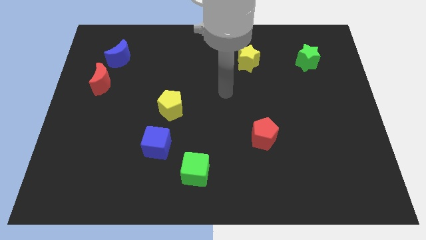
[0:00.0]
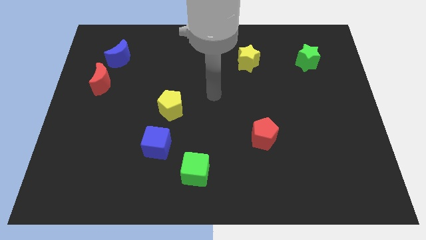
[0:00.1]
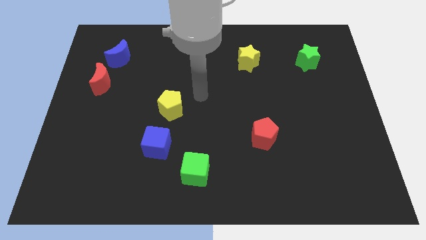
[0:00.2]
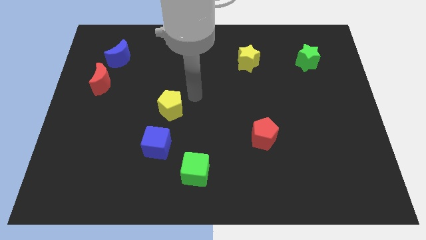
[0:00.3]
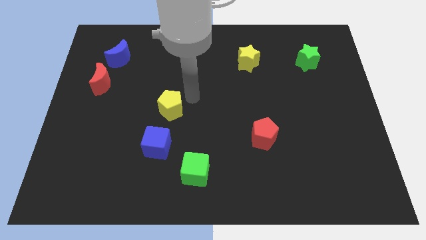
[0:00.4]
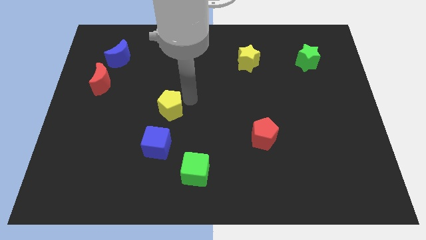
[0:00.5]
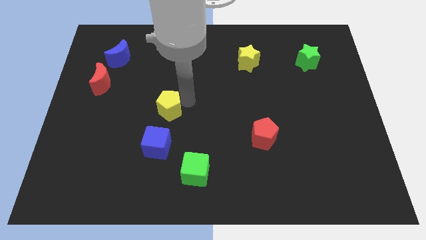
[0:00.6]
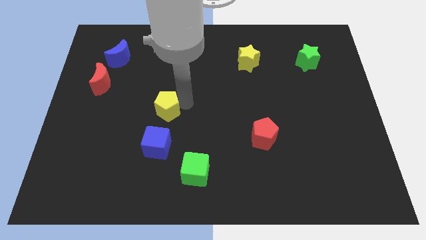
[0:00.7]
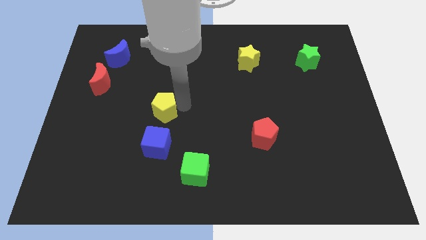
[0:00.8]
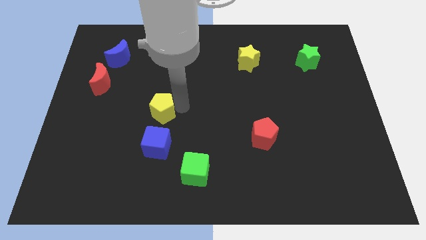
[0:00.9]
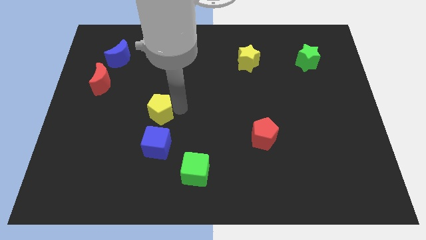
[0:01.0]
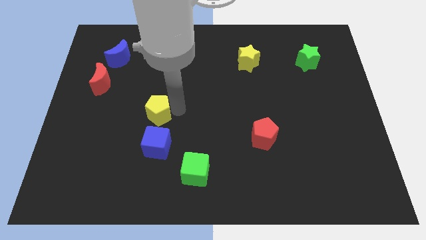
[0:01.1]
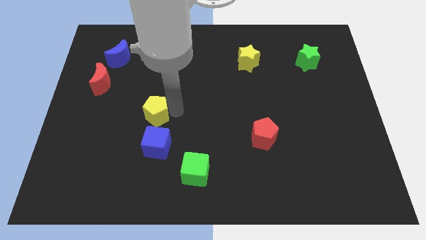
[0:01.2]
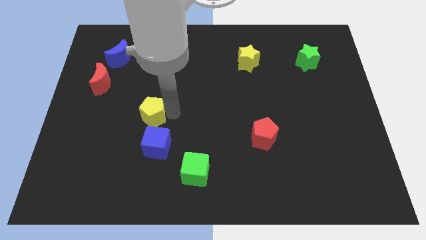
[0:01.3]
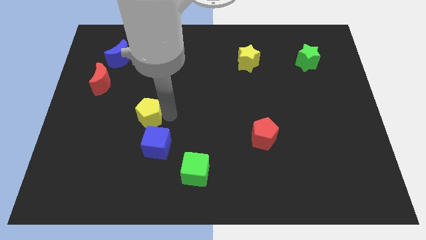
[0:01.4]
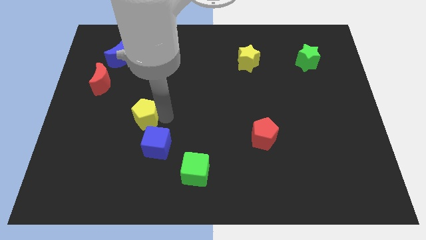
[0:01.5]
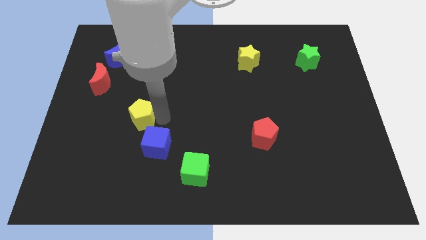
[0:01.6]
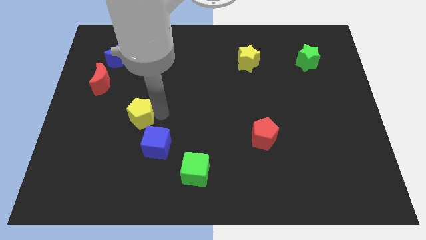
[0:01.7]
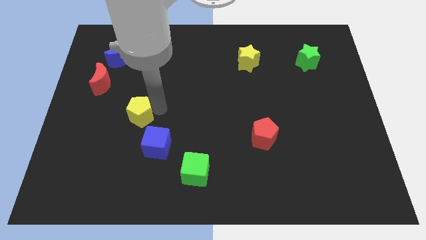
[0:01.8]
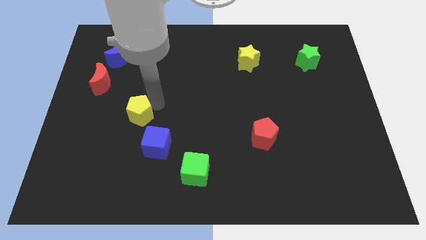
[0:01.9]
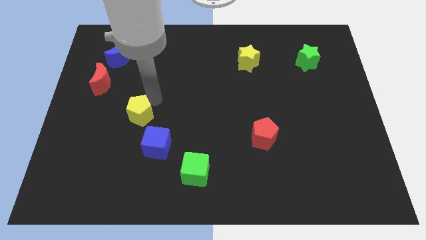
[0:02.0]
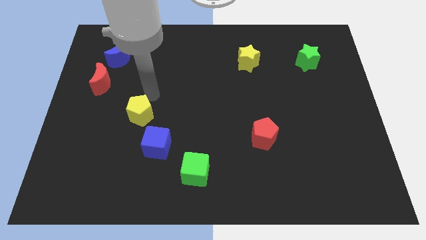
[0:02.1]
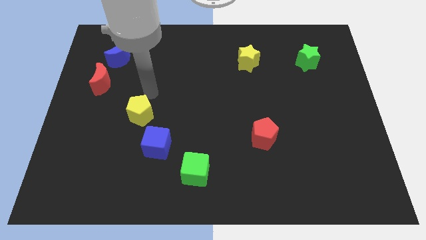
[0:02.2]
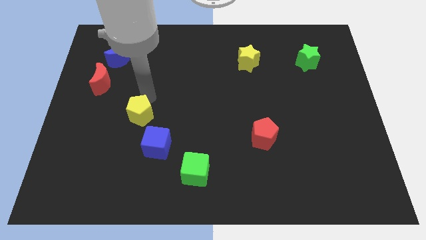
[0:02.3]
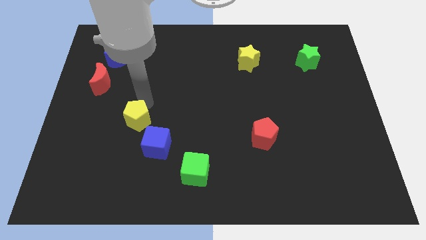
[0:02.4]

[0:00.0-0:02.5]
slightly slide the yellow pentagon down and then to the left

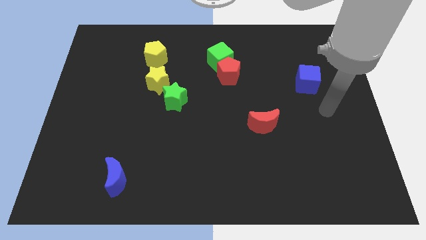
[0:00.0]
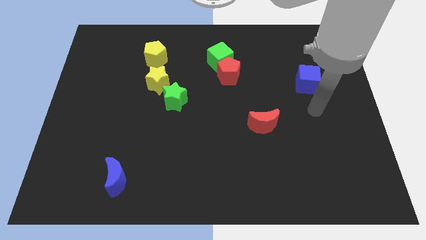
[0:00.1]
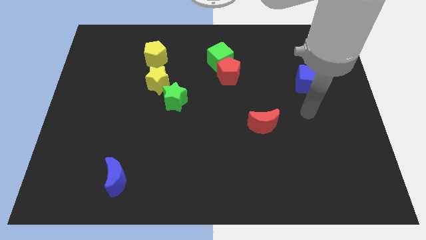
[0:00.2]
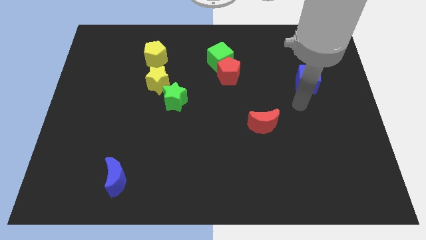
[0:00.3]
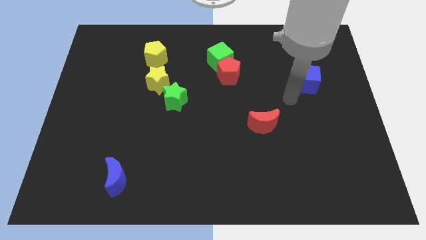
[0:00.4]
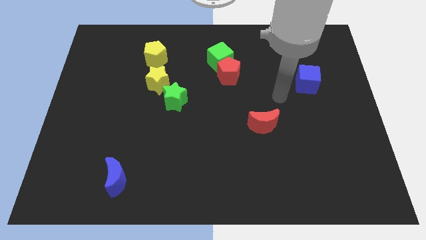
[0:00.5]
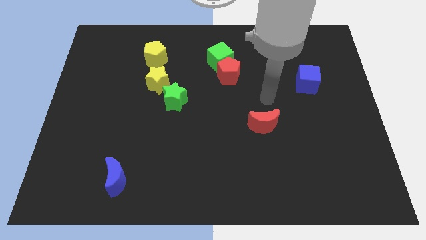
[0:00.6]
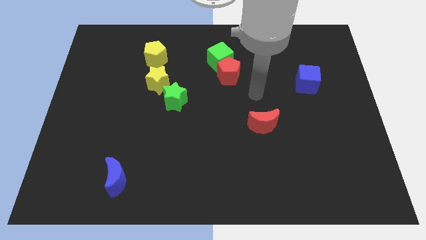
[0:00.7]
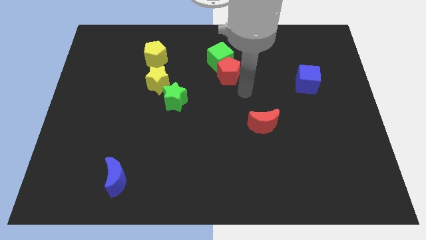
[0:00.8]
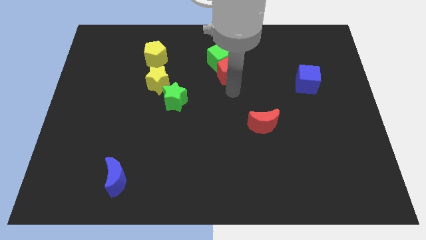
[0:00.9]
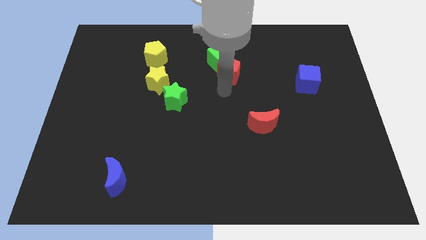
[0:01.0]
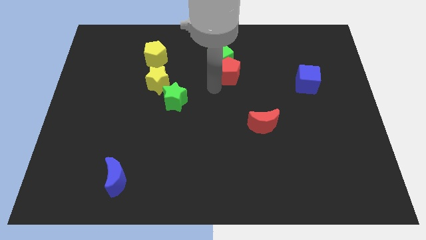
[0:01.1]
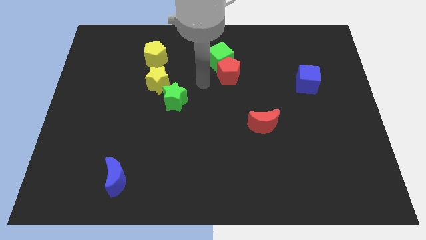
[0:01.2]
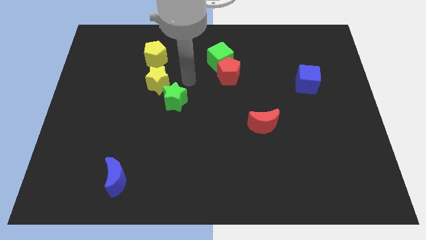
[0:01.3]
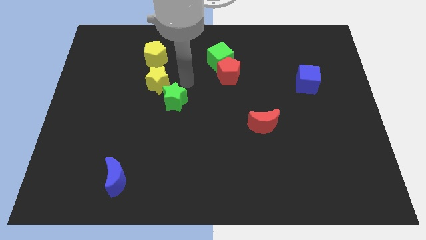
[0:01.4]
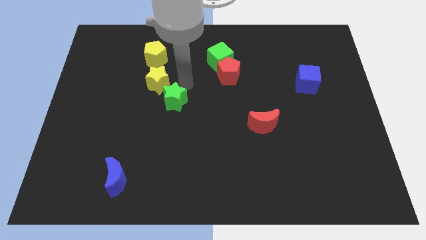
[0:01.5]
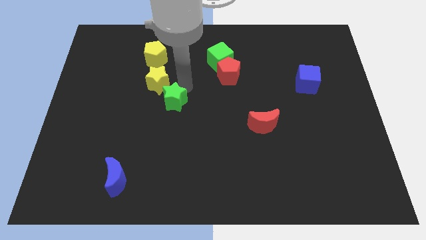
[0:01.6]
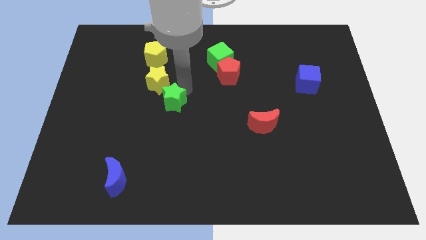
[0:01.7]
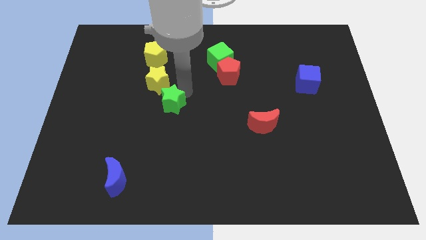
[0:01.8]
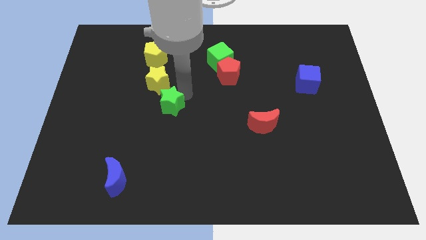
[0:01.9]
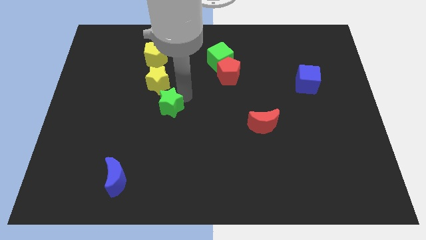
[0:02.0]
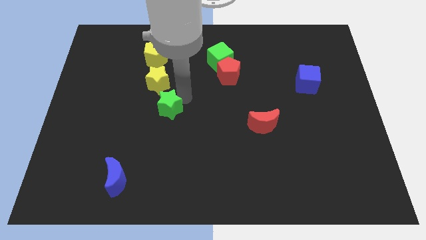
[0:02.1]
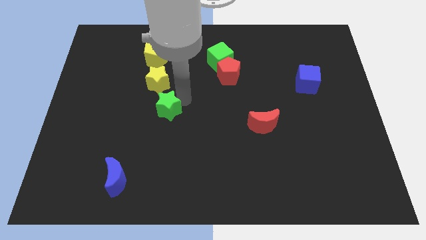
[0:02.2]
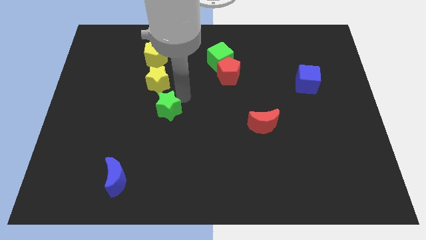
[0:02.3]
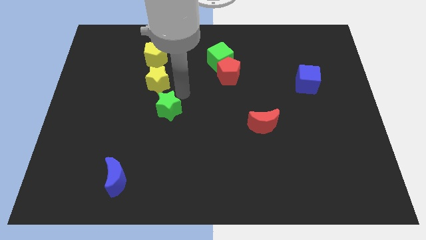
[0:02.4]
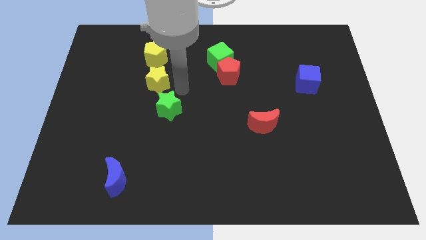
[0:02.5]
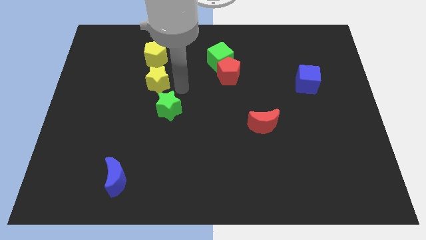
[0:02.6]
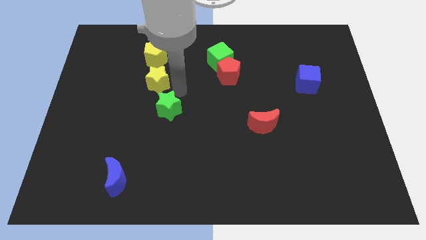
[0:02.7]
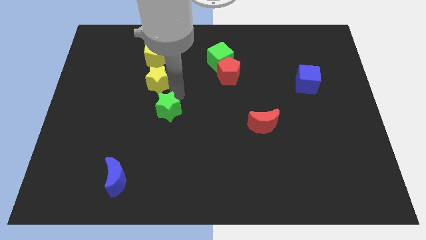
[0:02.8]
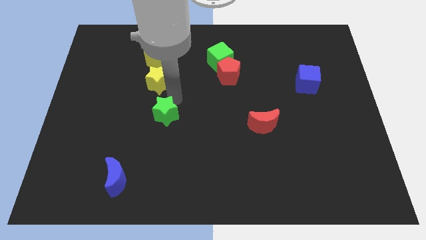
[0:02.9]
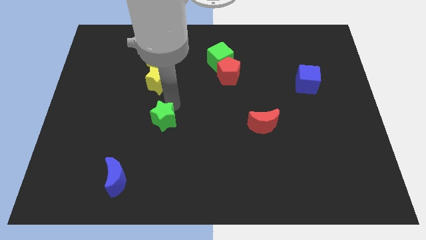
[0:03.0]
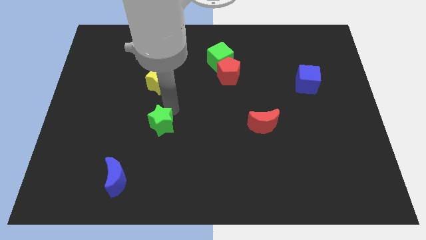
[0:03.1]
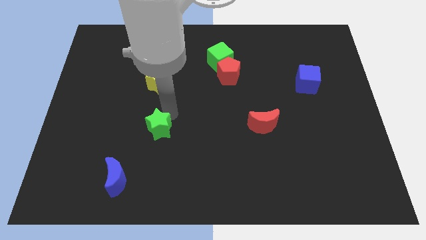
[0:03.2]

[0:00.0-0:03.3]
slightly slide the green star down and left diagonally

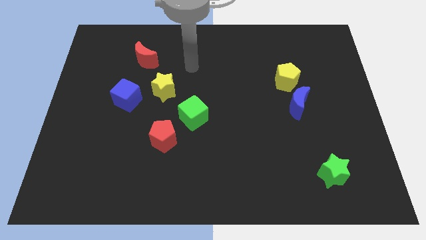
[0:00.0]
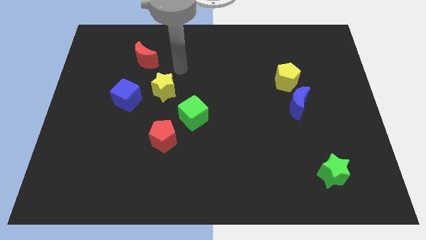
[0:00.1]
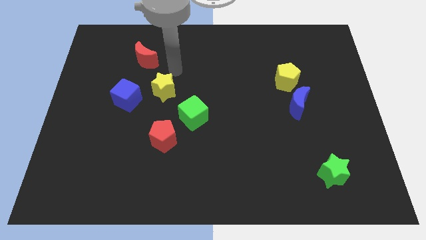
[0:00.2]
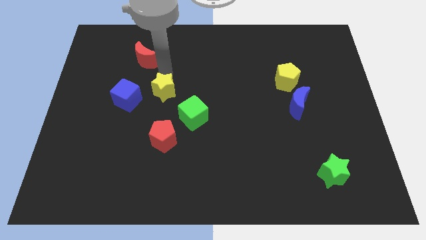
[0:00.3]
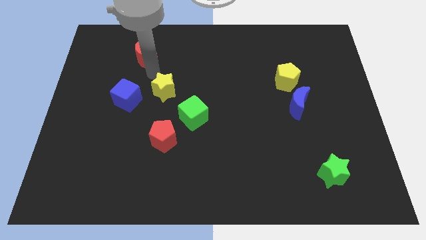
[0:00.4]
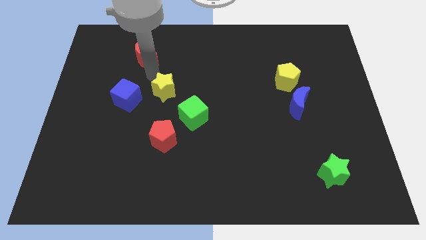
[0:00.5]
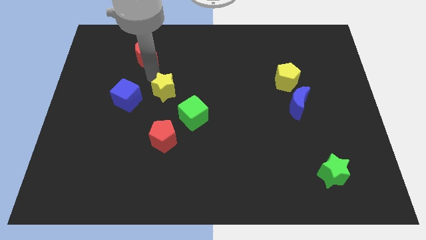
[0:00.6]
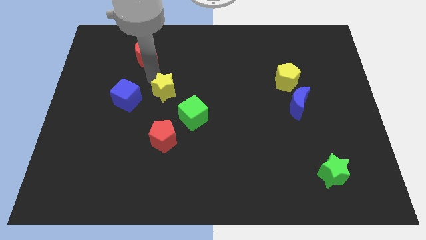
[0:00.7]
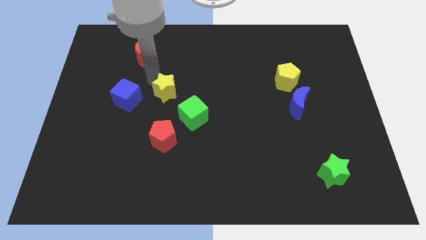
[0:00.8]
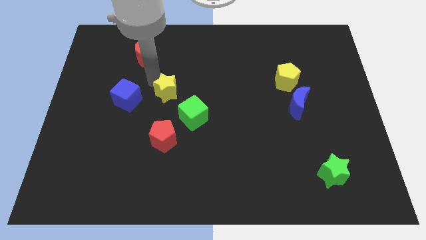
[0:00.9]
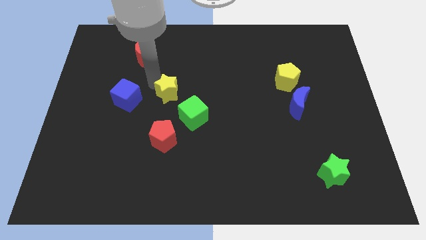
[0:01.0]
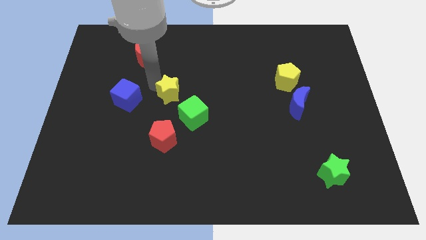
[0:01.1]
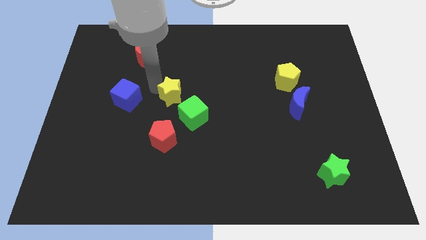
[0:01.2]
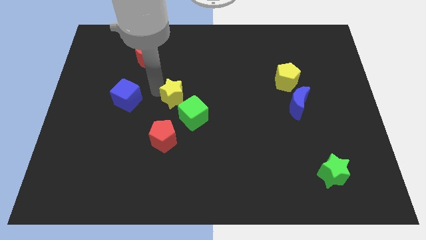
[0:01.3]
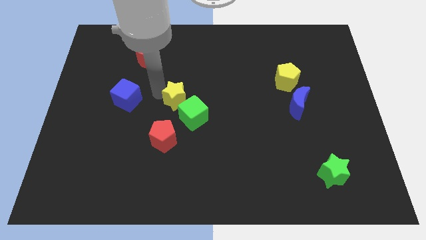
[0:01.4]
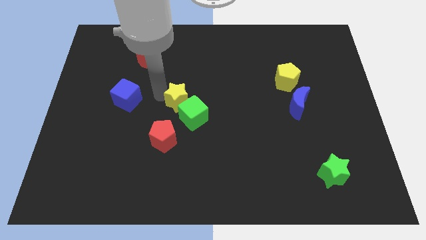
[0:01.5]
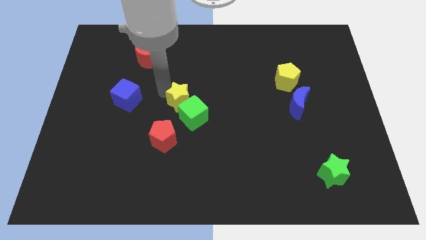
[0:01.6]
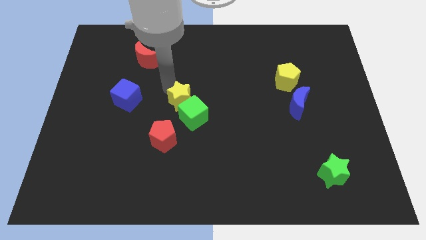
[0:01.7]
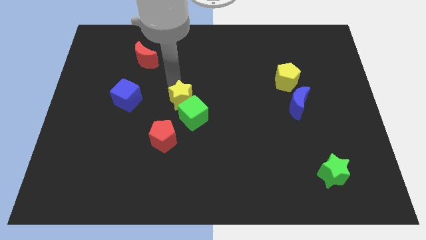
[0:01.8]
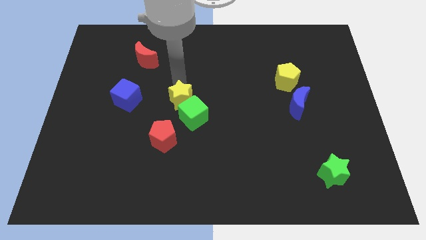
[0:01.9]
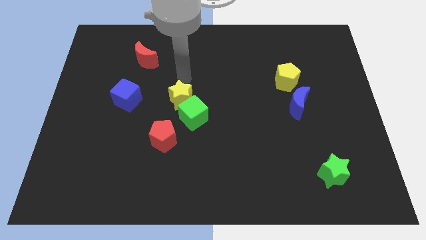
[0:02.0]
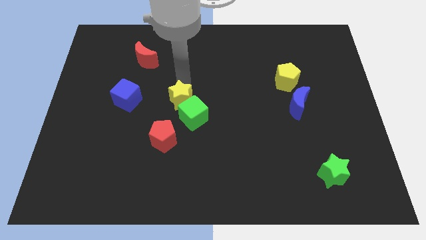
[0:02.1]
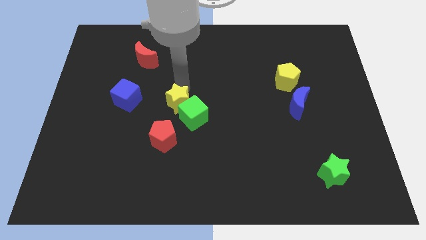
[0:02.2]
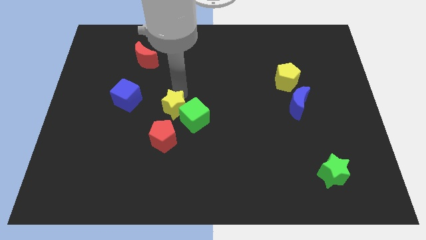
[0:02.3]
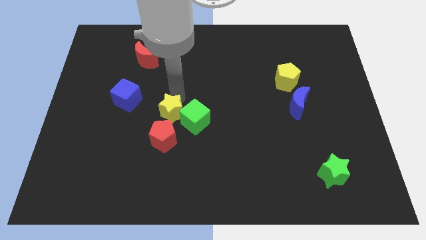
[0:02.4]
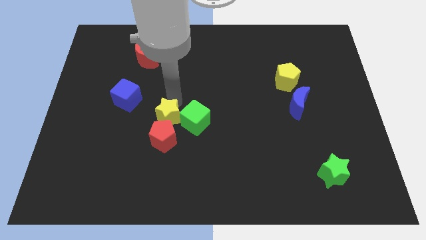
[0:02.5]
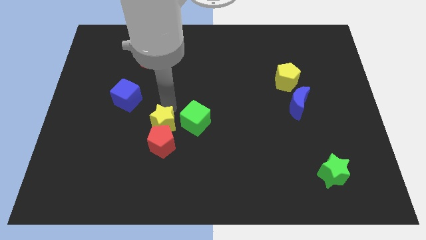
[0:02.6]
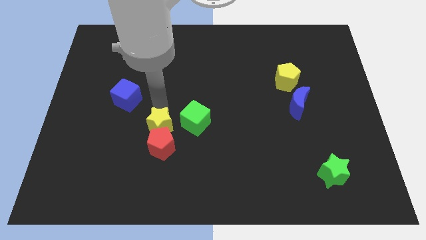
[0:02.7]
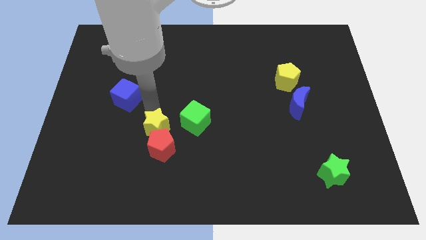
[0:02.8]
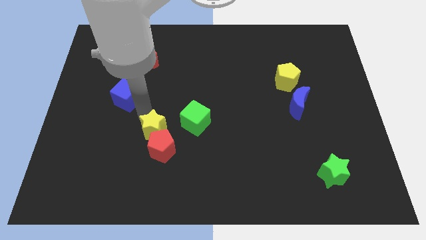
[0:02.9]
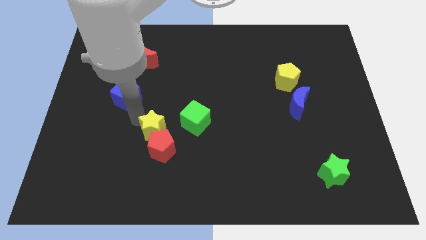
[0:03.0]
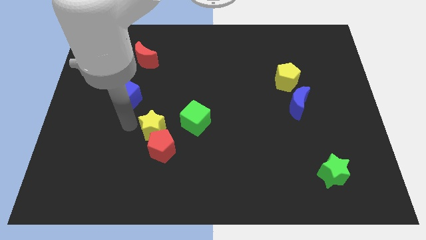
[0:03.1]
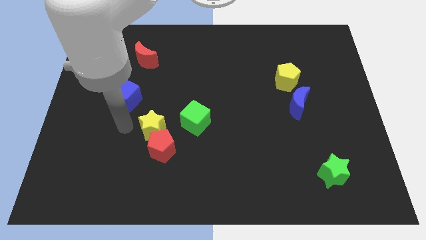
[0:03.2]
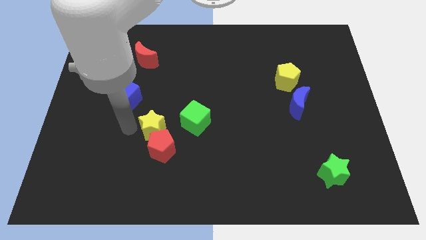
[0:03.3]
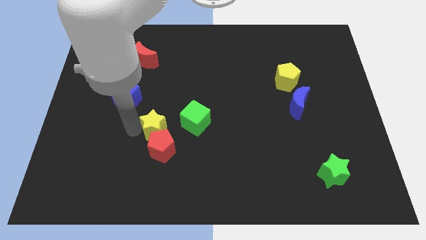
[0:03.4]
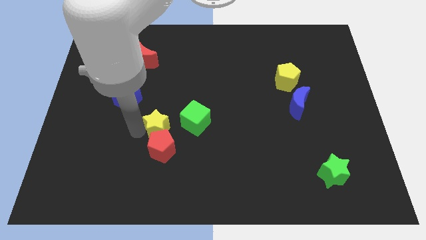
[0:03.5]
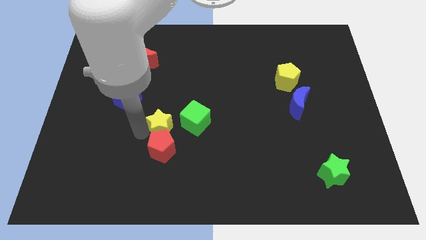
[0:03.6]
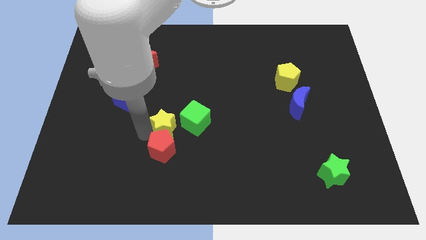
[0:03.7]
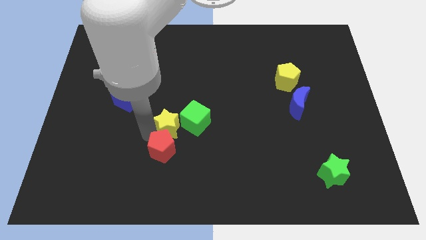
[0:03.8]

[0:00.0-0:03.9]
slide the yellow star downwards and to the right slightly
